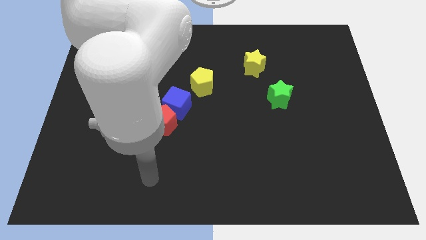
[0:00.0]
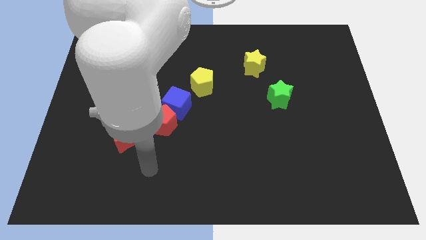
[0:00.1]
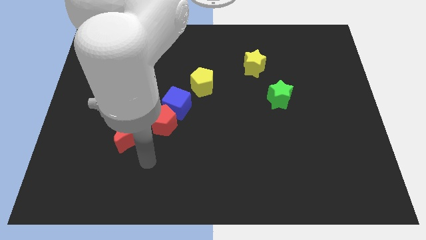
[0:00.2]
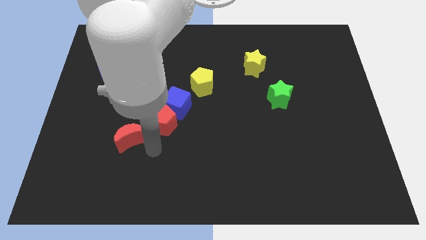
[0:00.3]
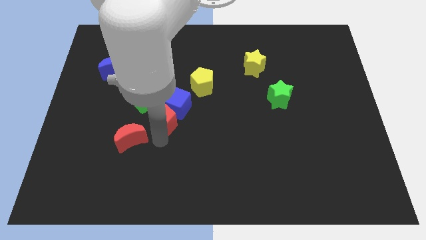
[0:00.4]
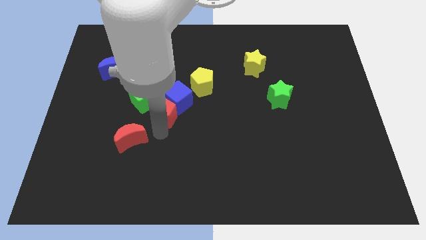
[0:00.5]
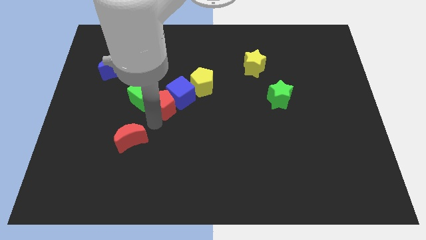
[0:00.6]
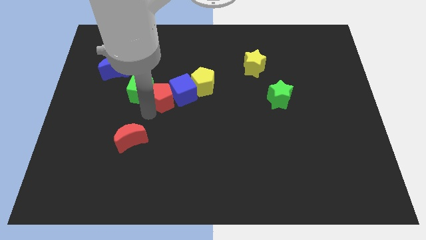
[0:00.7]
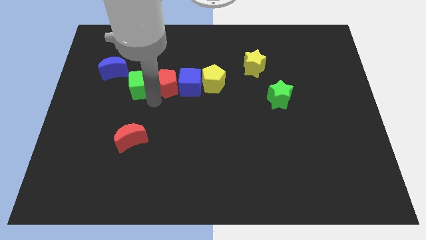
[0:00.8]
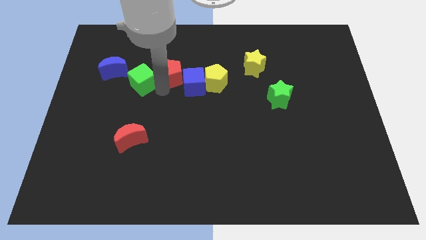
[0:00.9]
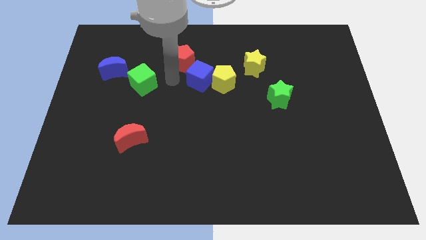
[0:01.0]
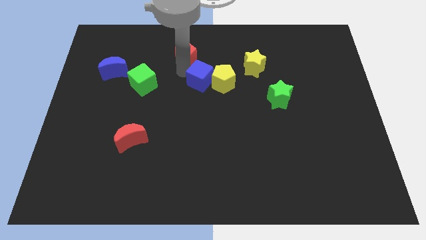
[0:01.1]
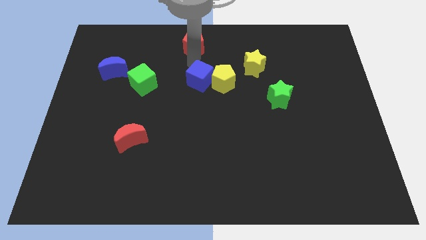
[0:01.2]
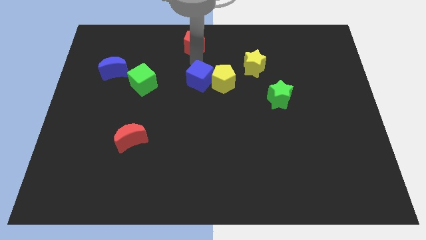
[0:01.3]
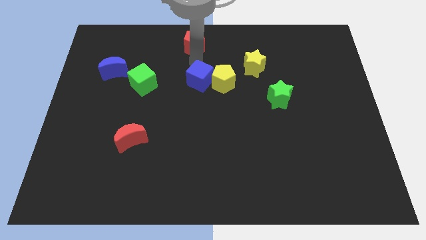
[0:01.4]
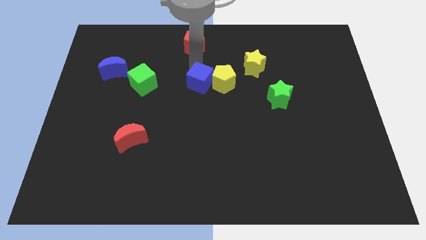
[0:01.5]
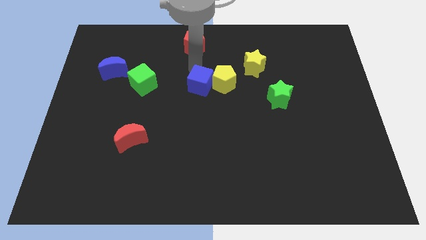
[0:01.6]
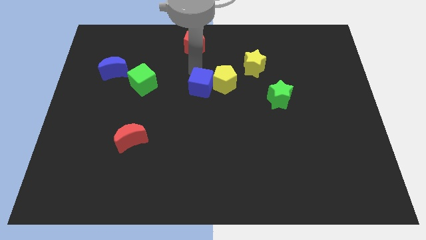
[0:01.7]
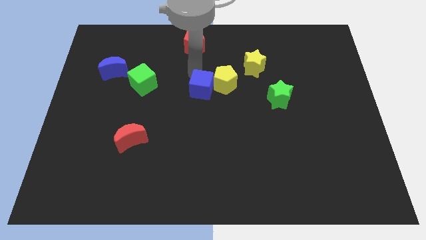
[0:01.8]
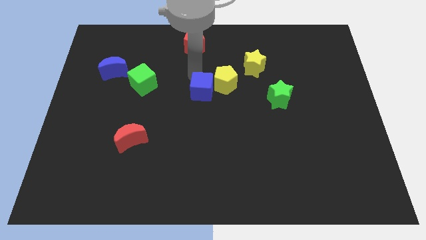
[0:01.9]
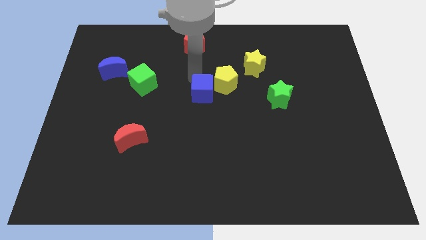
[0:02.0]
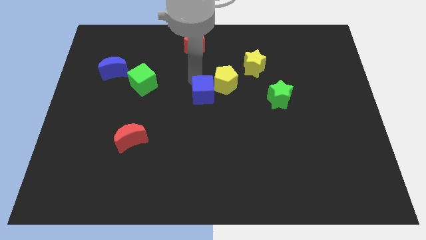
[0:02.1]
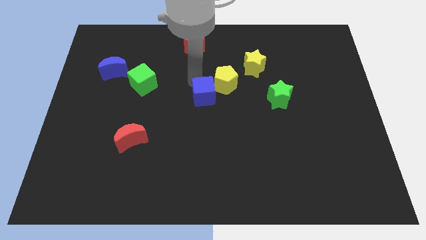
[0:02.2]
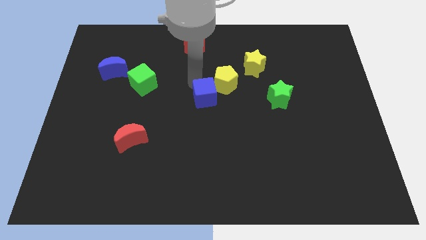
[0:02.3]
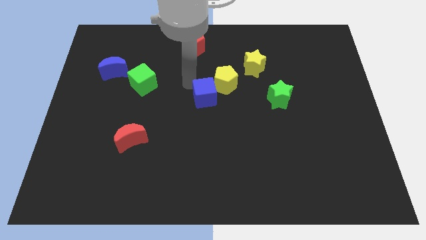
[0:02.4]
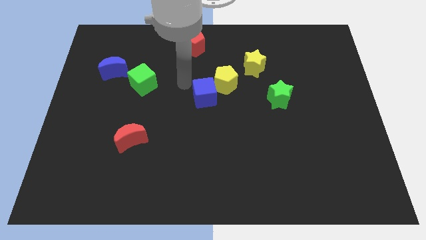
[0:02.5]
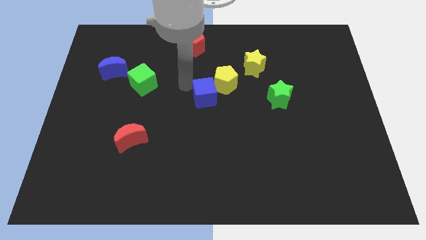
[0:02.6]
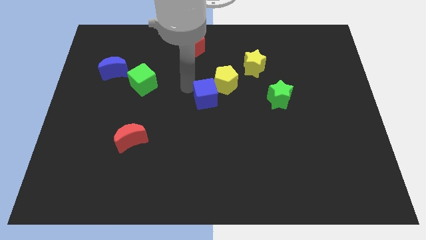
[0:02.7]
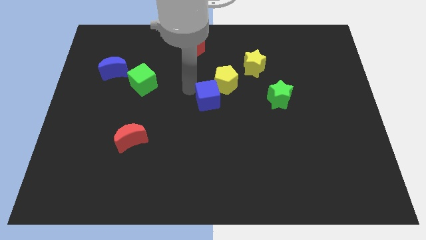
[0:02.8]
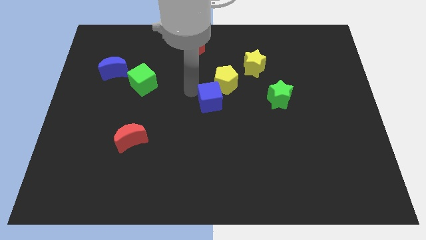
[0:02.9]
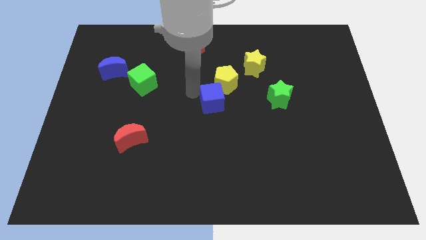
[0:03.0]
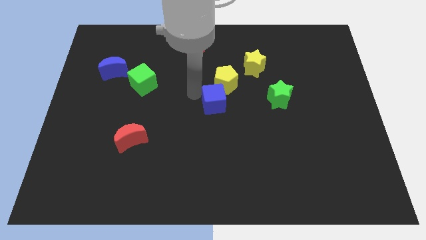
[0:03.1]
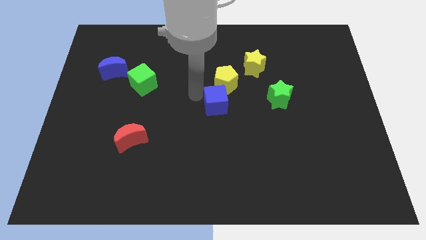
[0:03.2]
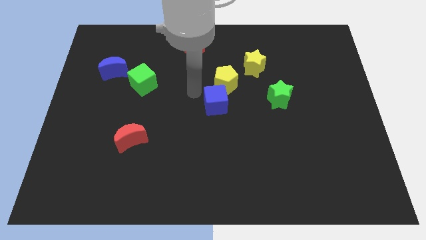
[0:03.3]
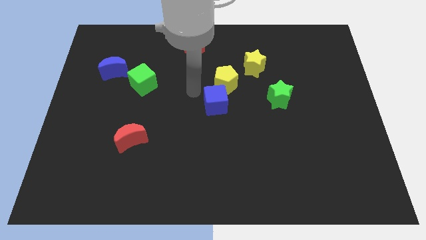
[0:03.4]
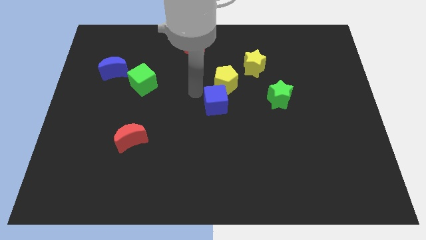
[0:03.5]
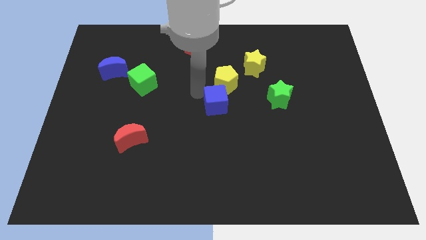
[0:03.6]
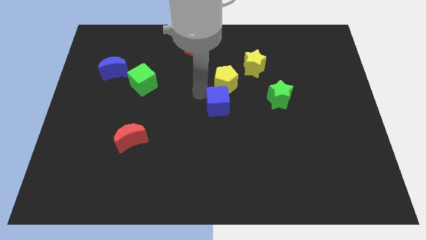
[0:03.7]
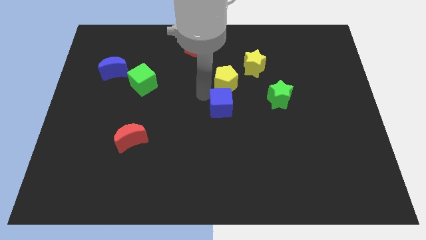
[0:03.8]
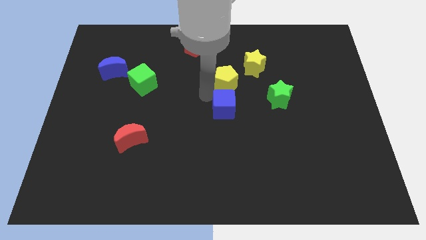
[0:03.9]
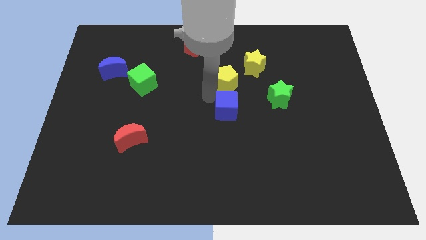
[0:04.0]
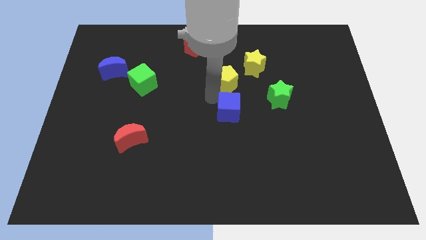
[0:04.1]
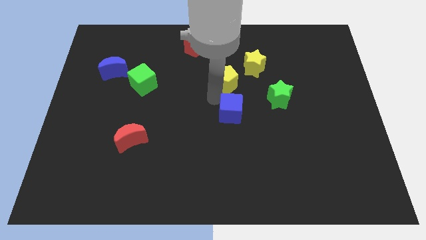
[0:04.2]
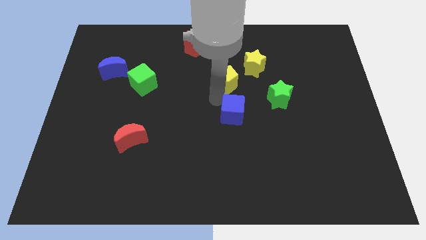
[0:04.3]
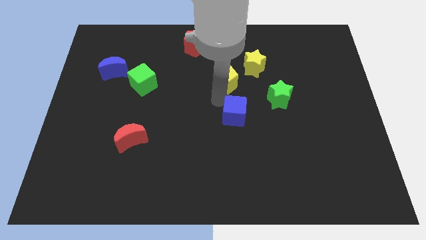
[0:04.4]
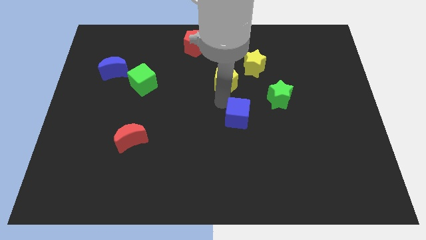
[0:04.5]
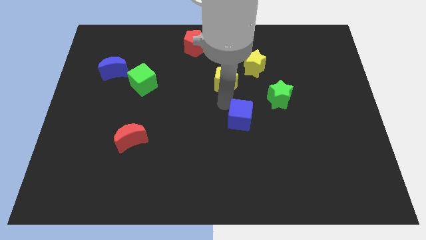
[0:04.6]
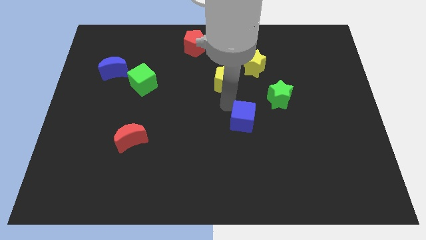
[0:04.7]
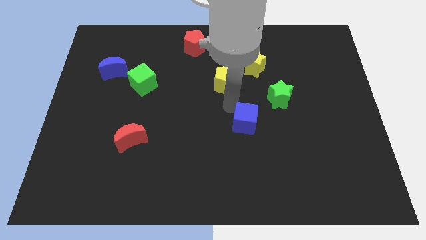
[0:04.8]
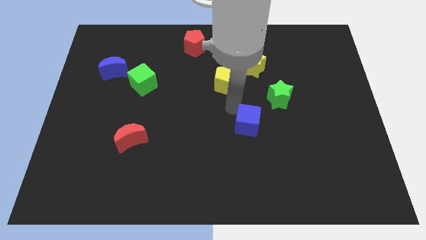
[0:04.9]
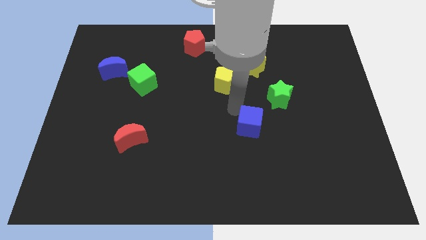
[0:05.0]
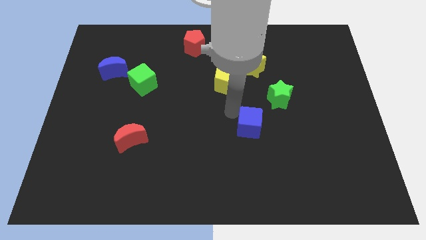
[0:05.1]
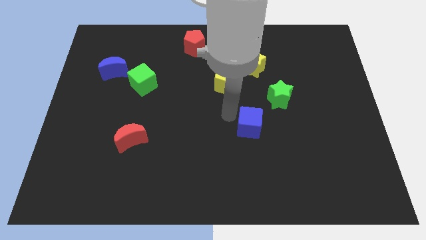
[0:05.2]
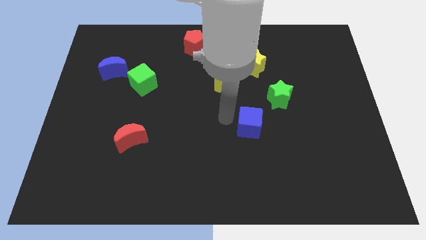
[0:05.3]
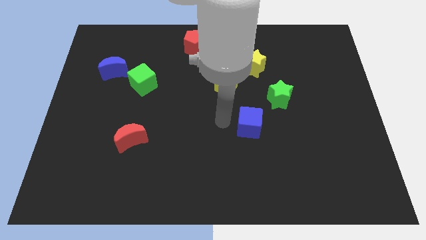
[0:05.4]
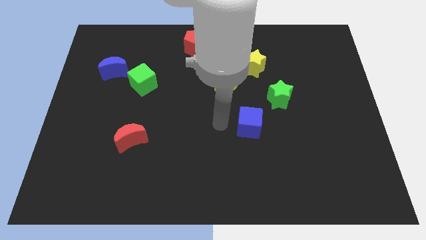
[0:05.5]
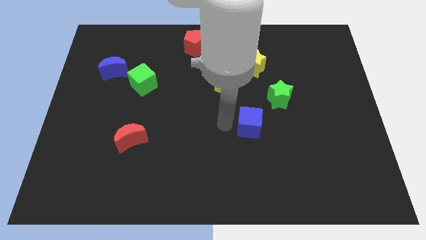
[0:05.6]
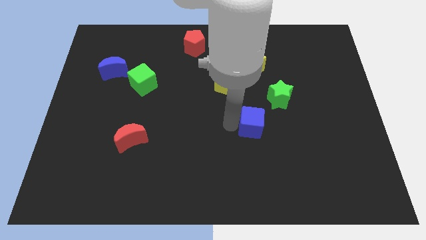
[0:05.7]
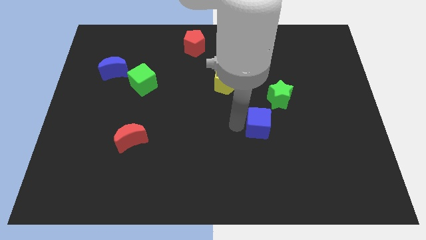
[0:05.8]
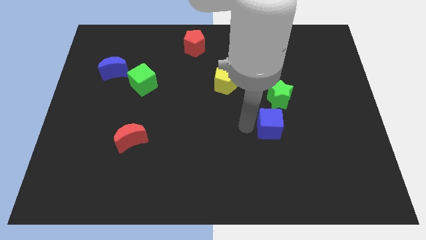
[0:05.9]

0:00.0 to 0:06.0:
move the blue cube to the right

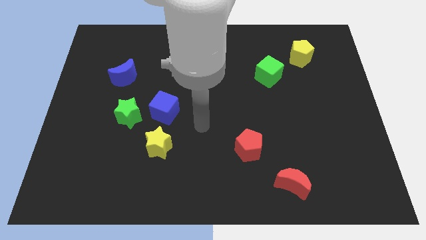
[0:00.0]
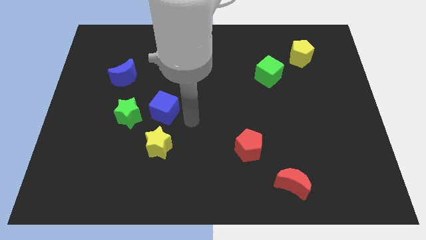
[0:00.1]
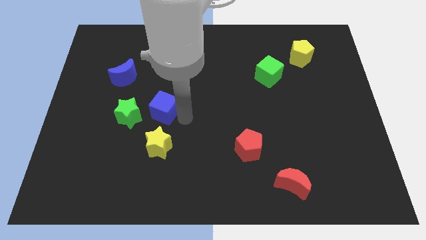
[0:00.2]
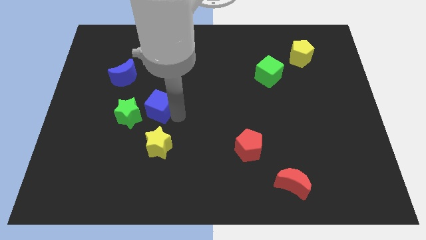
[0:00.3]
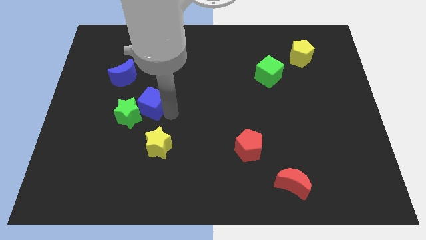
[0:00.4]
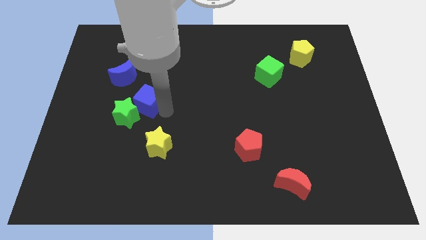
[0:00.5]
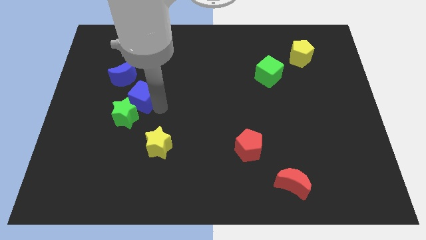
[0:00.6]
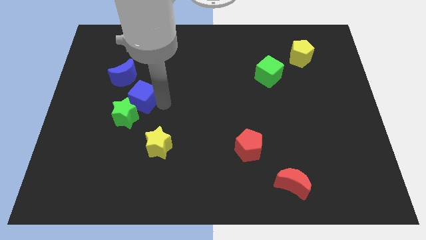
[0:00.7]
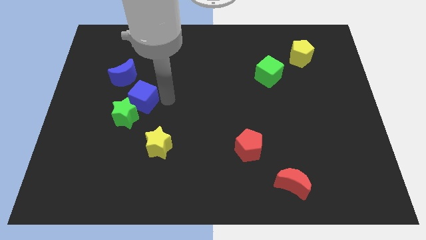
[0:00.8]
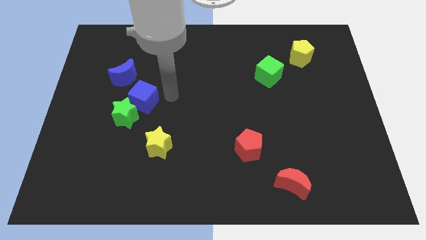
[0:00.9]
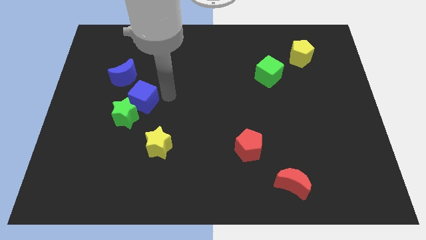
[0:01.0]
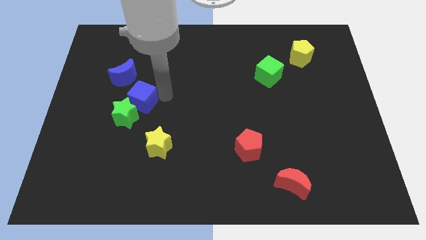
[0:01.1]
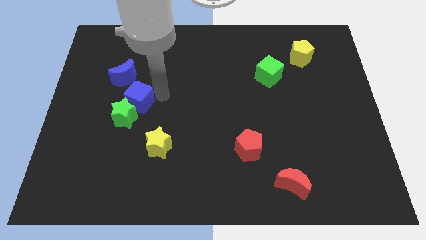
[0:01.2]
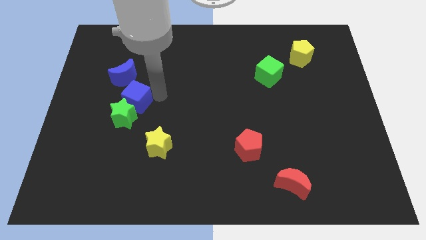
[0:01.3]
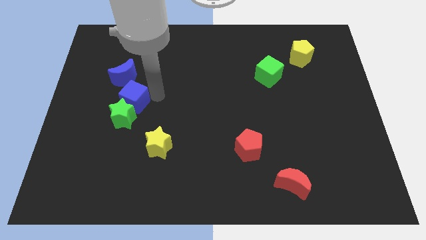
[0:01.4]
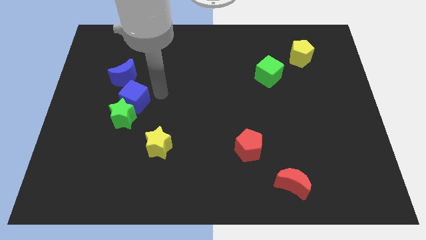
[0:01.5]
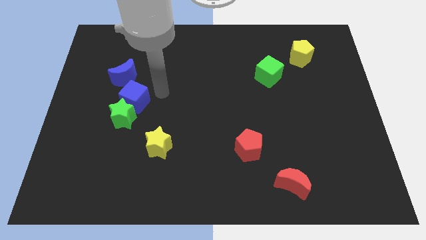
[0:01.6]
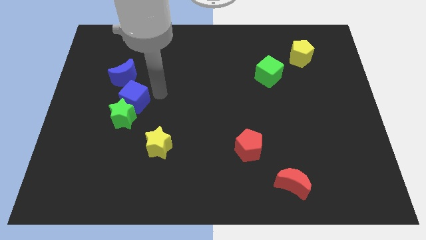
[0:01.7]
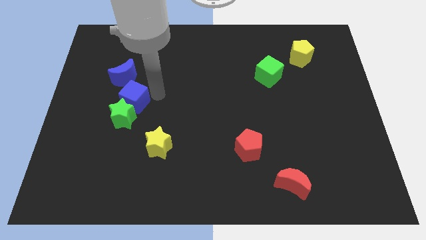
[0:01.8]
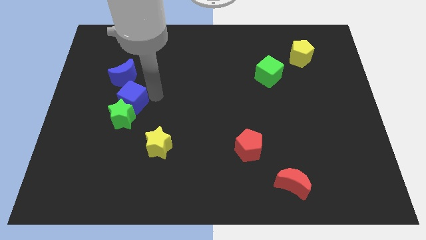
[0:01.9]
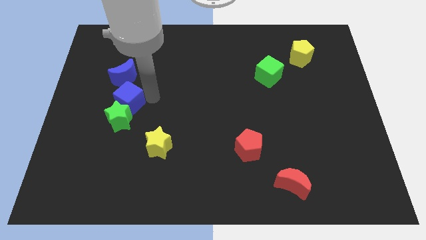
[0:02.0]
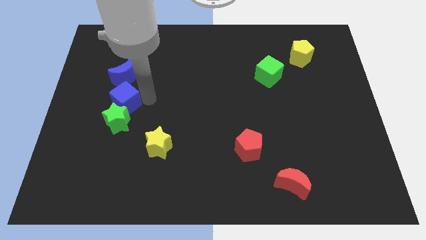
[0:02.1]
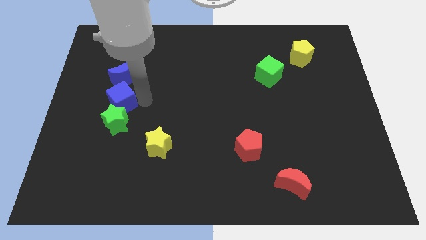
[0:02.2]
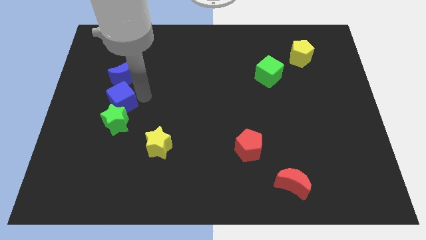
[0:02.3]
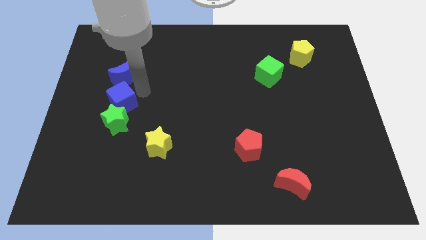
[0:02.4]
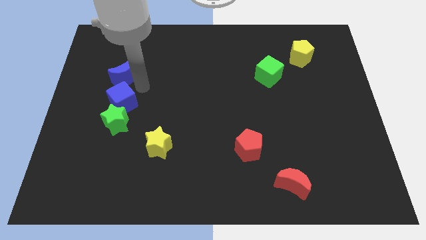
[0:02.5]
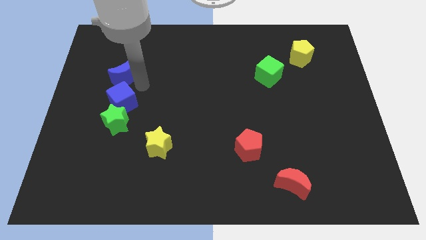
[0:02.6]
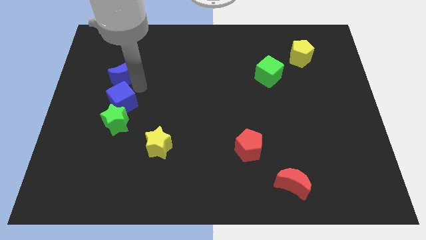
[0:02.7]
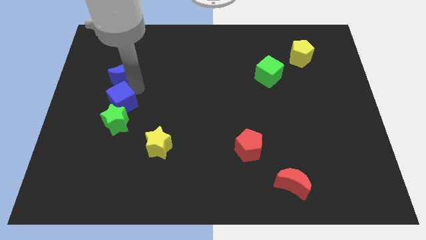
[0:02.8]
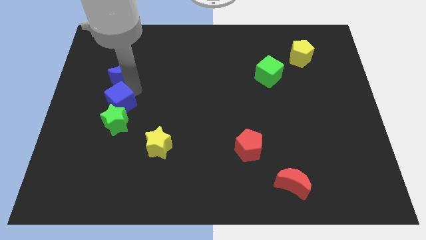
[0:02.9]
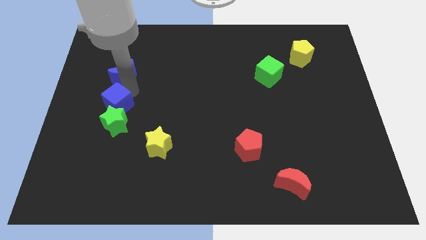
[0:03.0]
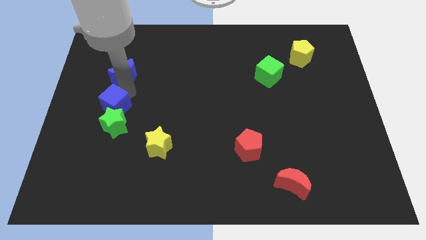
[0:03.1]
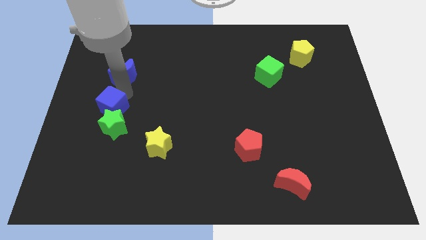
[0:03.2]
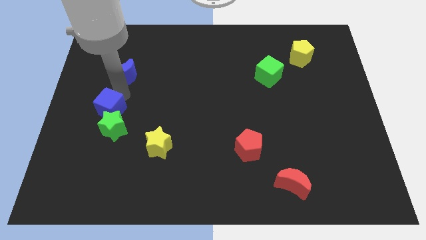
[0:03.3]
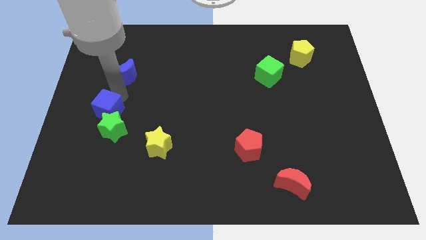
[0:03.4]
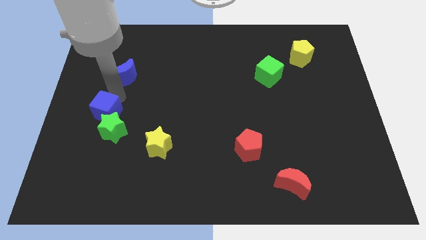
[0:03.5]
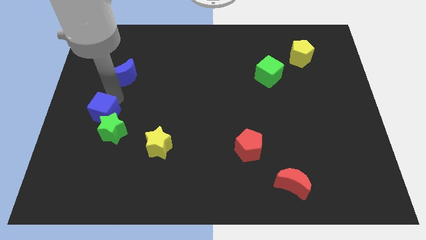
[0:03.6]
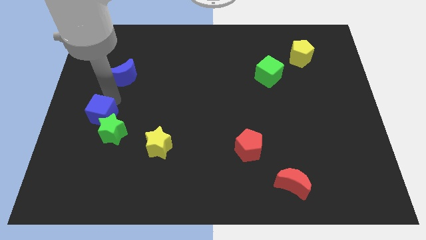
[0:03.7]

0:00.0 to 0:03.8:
move the blue cube down and to the left a bit
